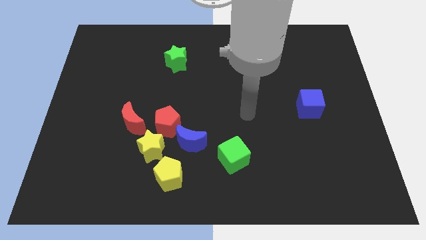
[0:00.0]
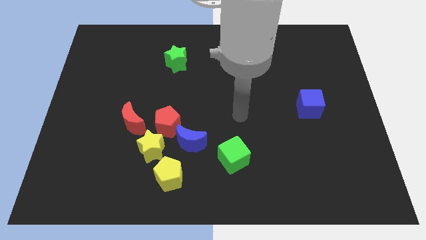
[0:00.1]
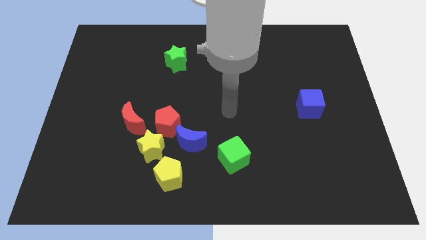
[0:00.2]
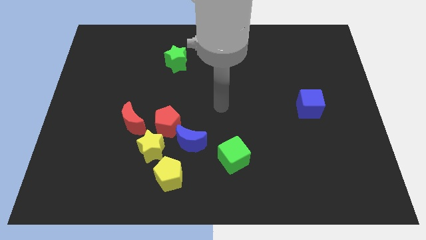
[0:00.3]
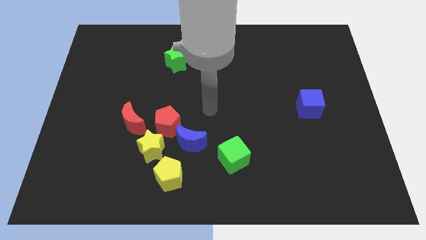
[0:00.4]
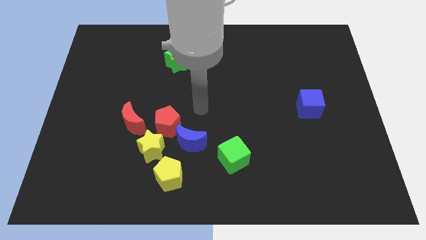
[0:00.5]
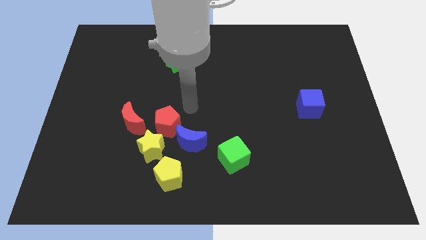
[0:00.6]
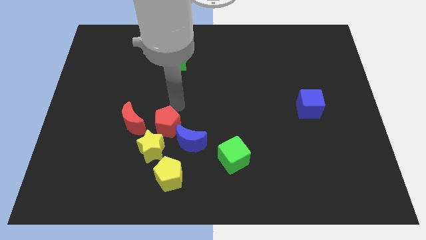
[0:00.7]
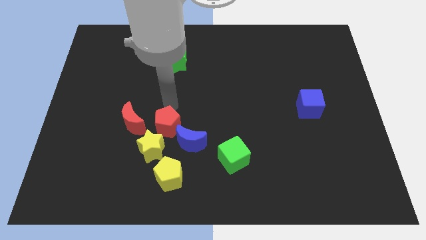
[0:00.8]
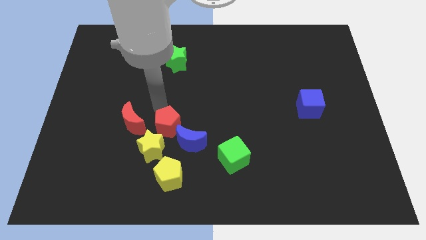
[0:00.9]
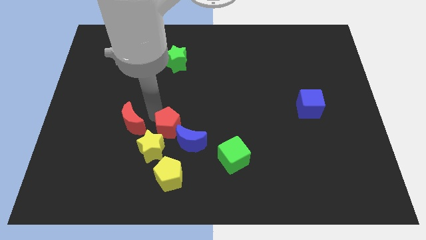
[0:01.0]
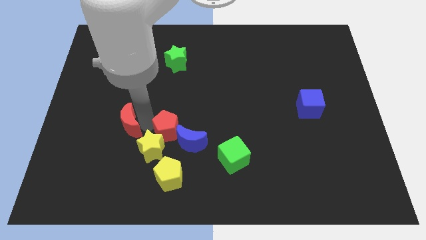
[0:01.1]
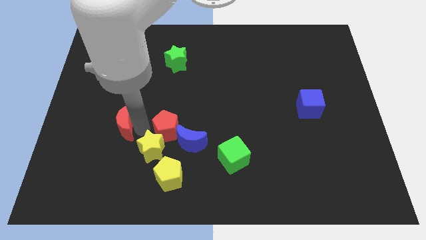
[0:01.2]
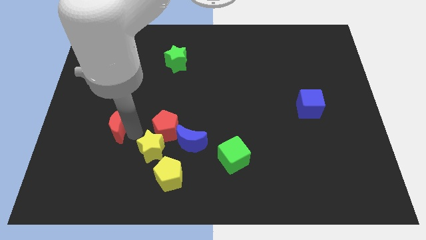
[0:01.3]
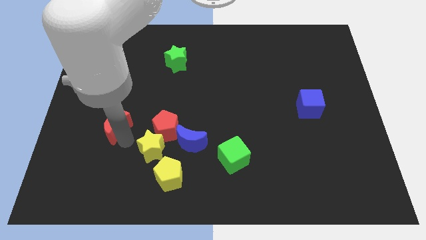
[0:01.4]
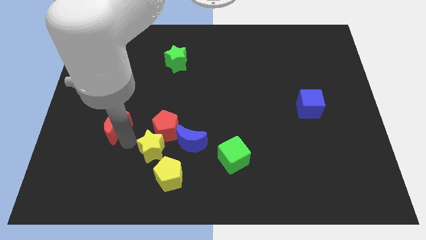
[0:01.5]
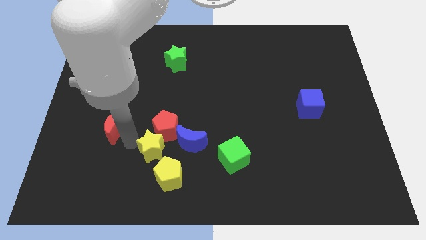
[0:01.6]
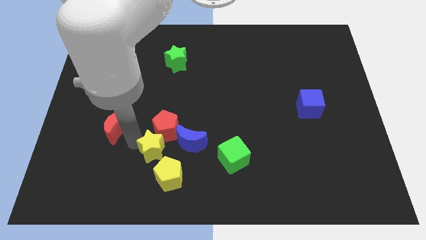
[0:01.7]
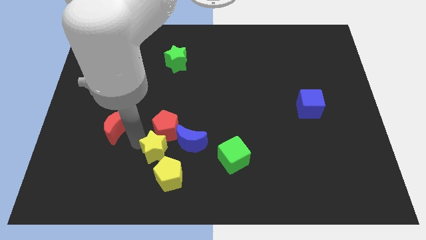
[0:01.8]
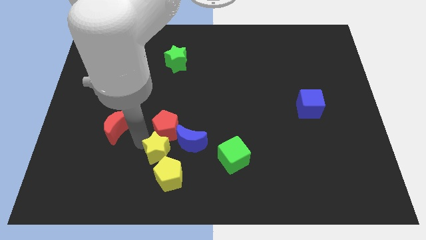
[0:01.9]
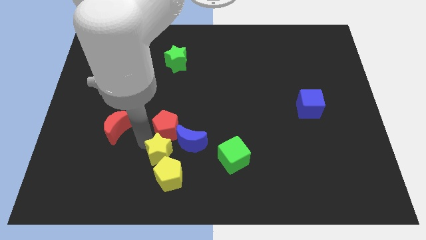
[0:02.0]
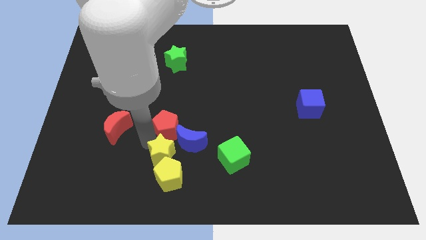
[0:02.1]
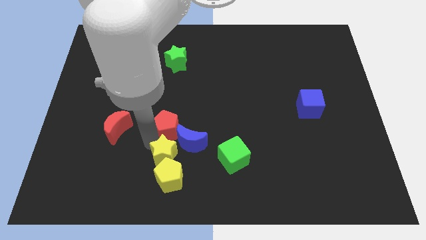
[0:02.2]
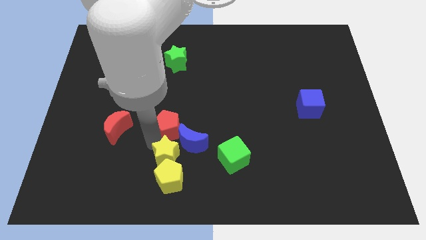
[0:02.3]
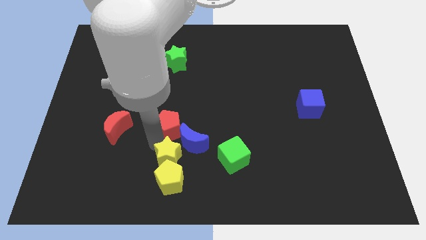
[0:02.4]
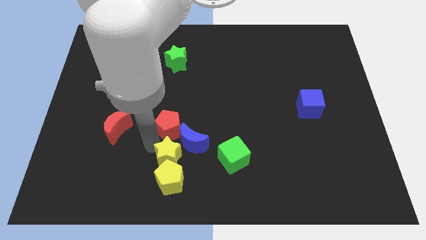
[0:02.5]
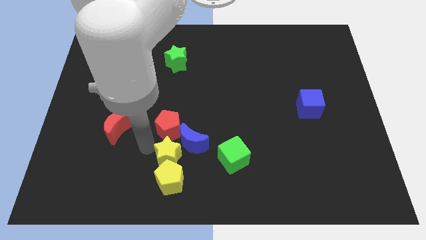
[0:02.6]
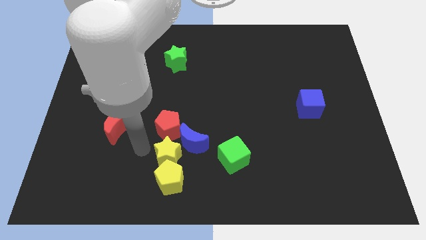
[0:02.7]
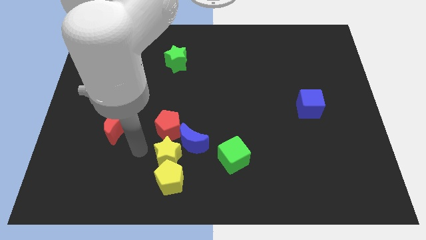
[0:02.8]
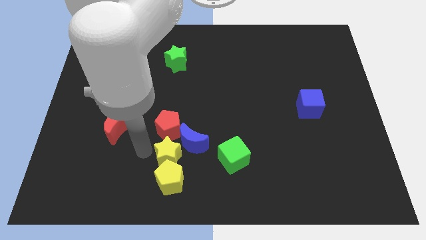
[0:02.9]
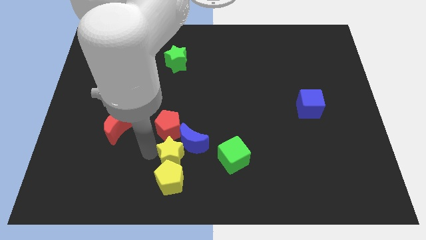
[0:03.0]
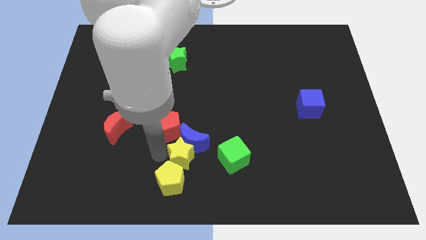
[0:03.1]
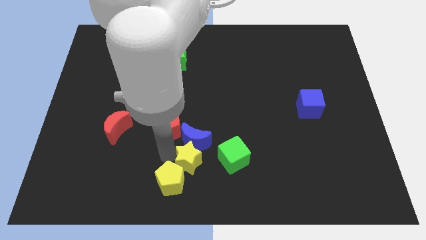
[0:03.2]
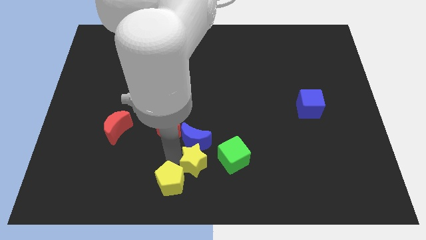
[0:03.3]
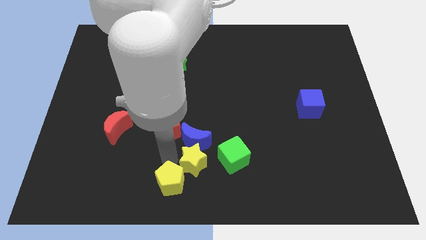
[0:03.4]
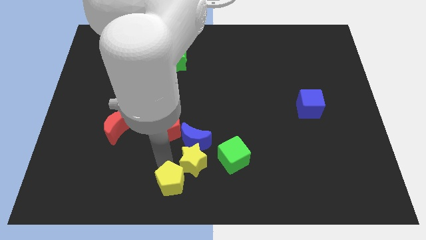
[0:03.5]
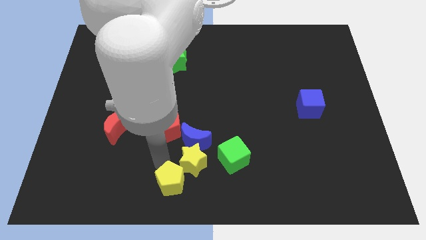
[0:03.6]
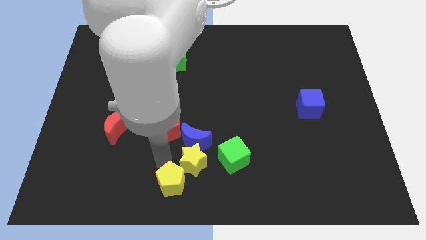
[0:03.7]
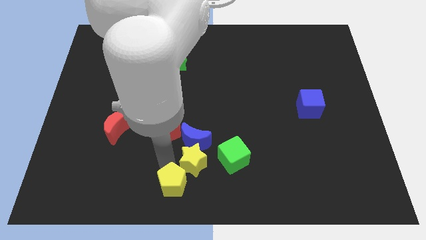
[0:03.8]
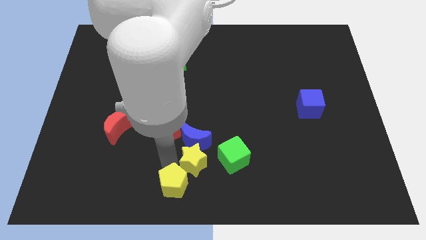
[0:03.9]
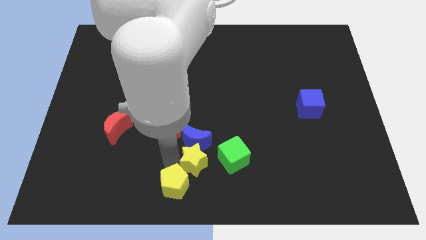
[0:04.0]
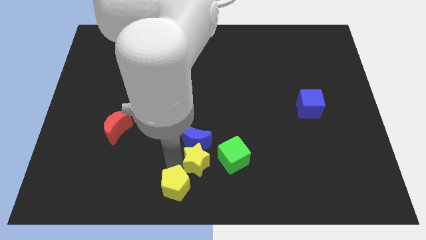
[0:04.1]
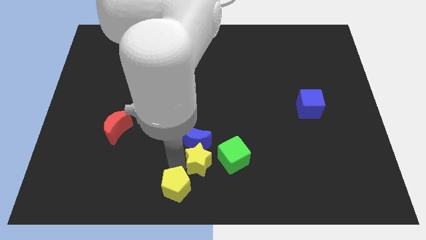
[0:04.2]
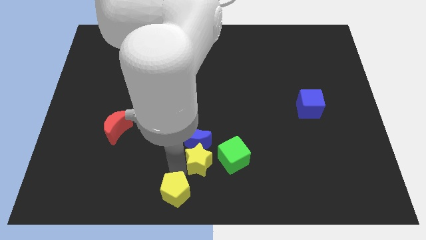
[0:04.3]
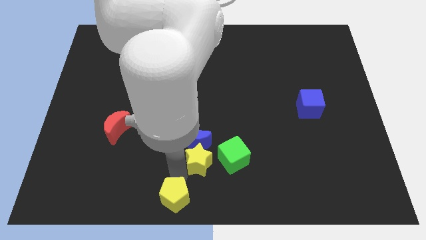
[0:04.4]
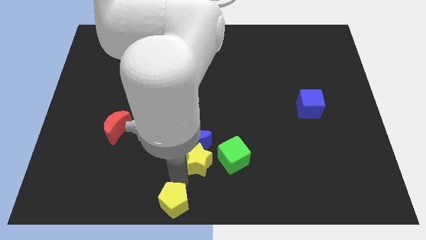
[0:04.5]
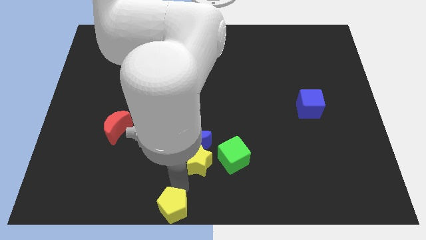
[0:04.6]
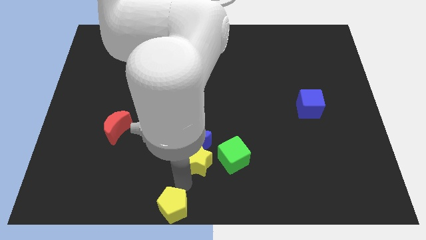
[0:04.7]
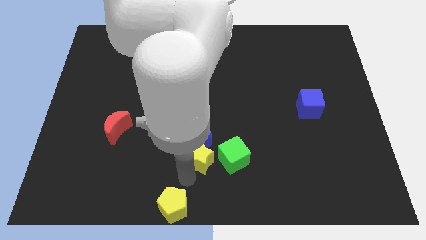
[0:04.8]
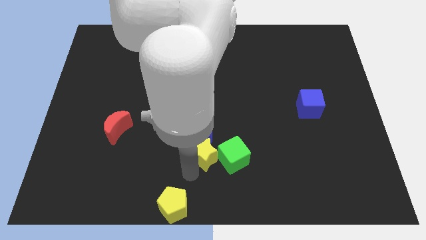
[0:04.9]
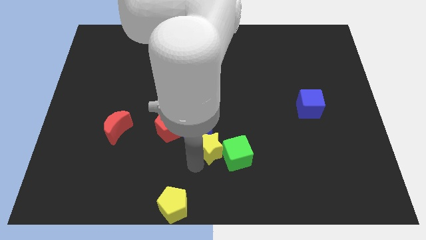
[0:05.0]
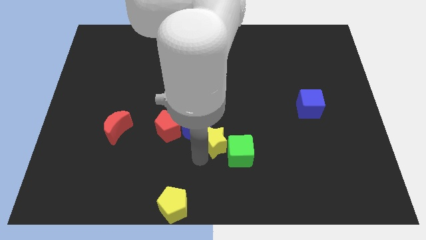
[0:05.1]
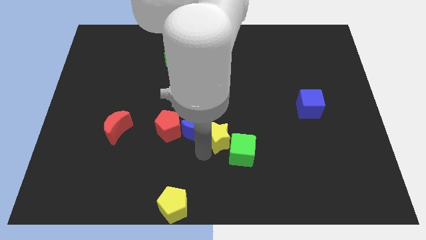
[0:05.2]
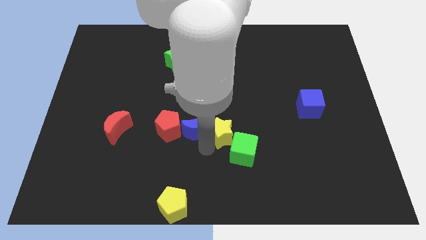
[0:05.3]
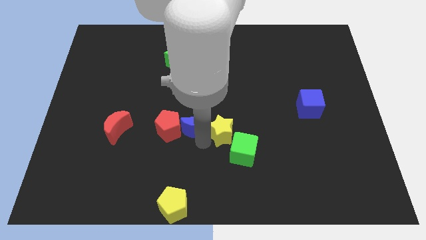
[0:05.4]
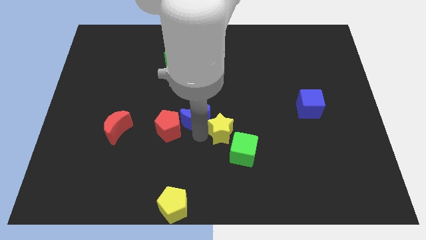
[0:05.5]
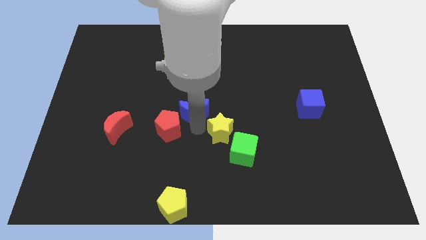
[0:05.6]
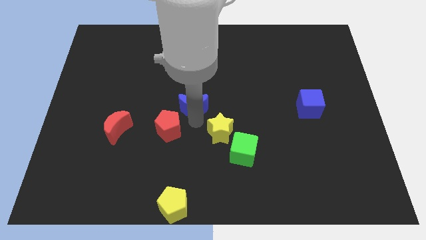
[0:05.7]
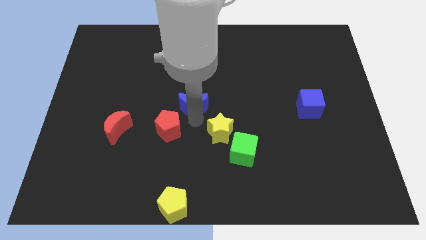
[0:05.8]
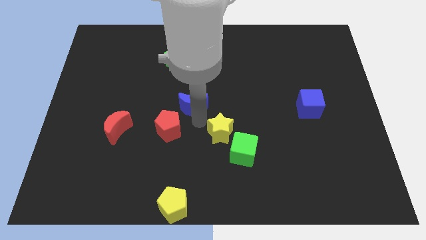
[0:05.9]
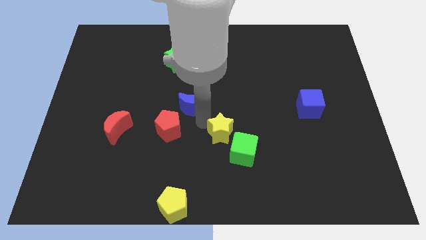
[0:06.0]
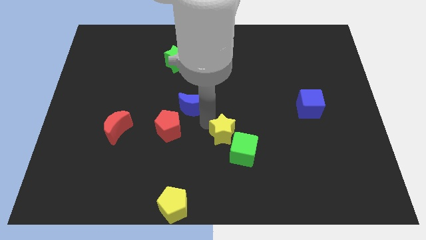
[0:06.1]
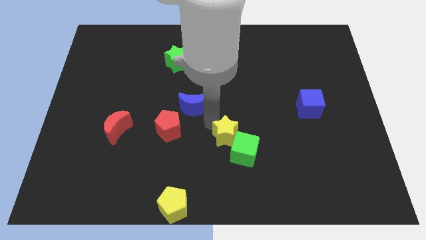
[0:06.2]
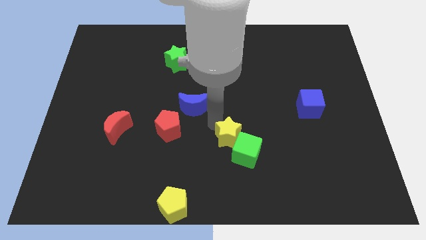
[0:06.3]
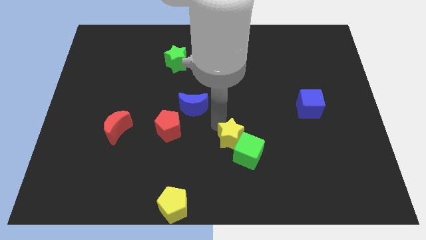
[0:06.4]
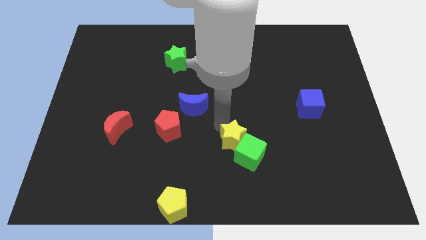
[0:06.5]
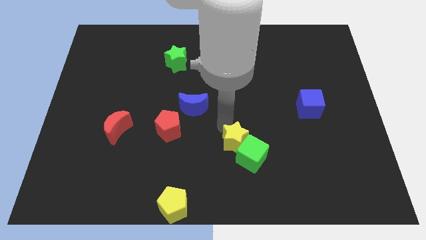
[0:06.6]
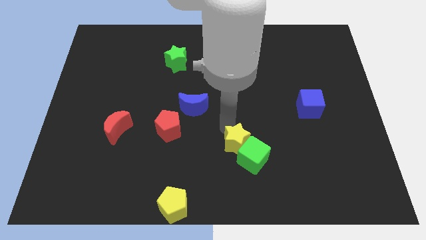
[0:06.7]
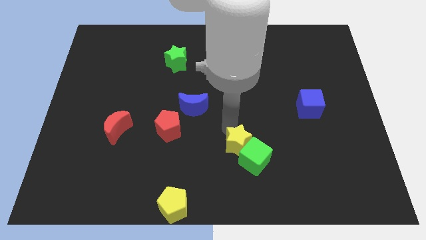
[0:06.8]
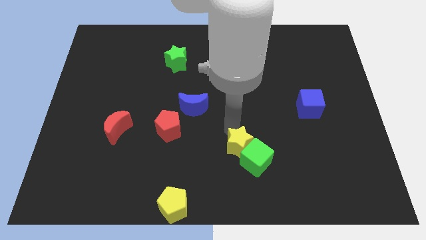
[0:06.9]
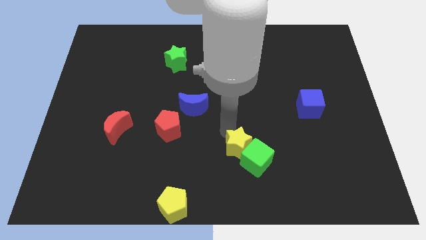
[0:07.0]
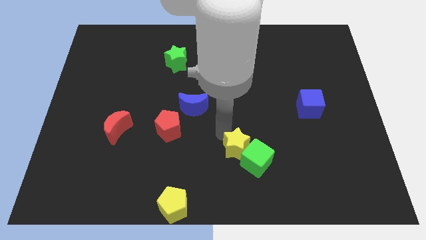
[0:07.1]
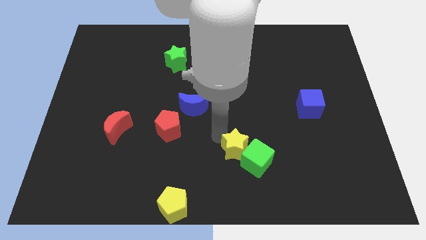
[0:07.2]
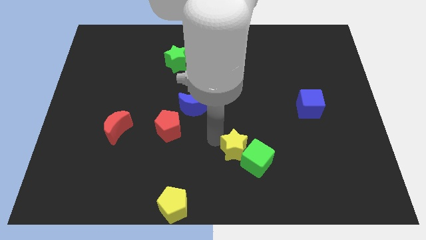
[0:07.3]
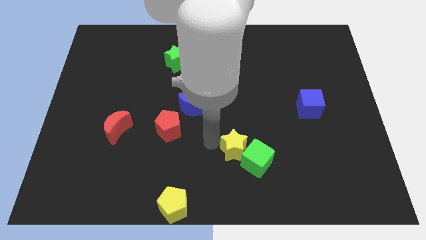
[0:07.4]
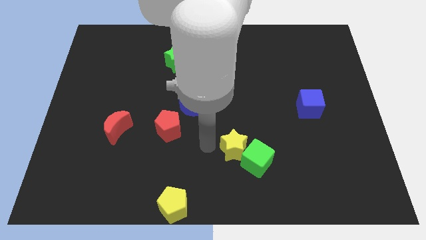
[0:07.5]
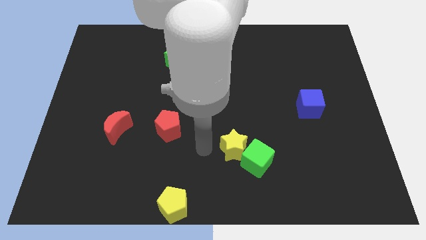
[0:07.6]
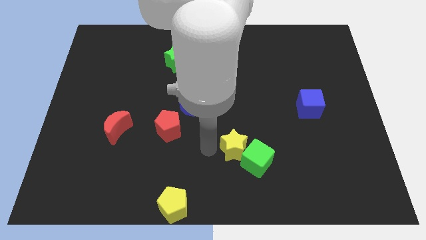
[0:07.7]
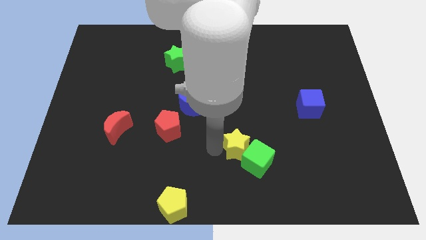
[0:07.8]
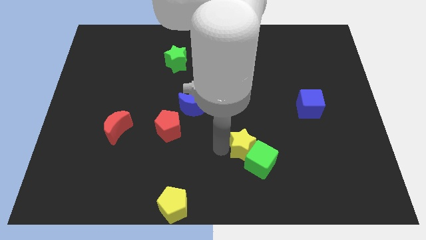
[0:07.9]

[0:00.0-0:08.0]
slide the yellow star right

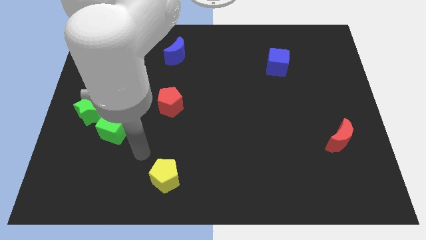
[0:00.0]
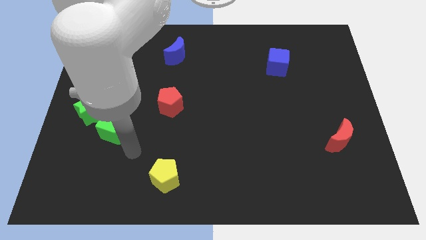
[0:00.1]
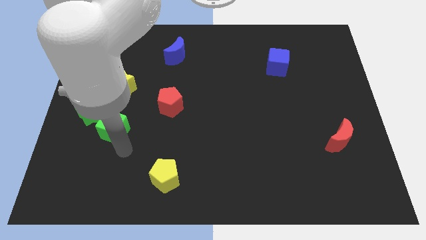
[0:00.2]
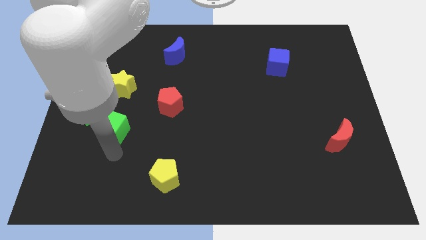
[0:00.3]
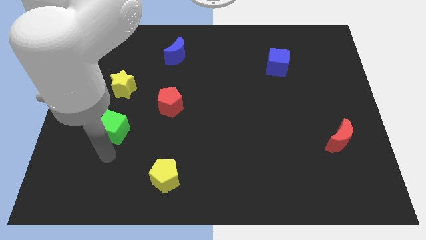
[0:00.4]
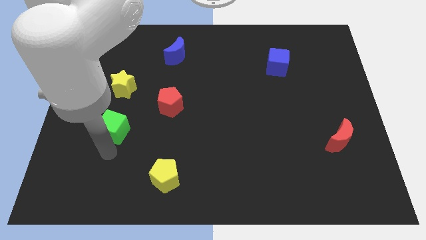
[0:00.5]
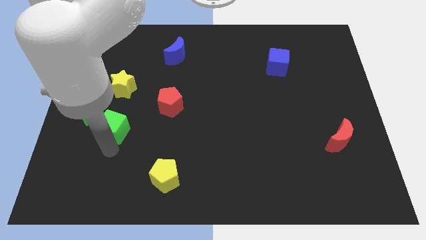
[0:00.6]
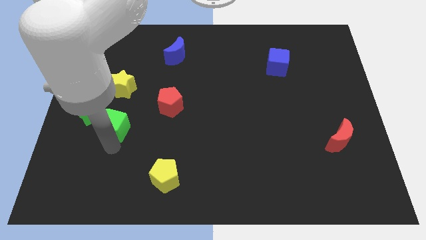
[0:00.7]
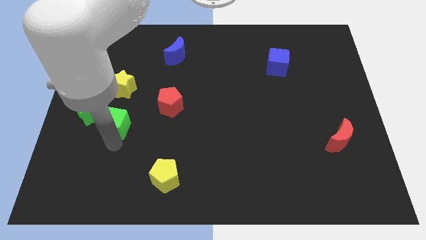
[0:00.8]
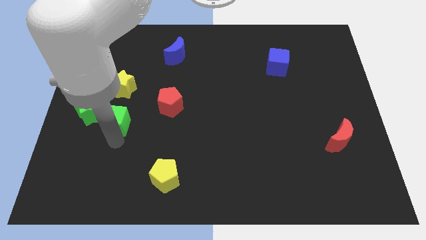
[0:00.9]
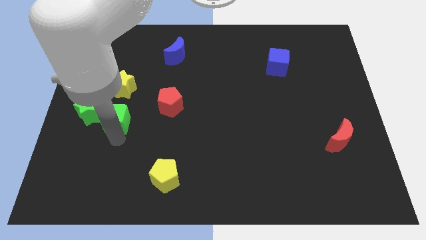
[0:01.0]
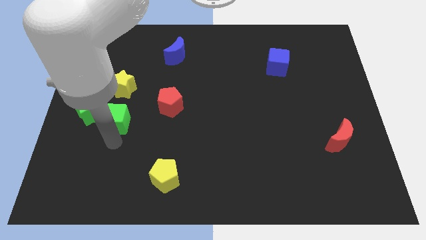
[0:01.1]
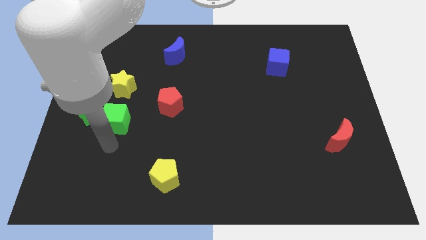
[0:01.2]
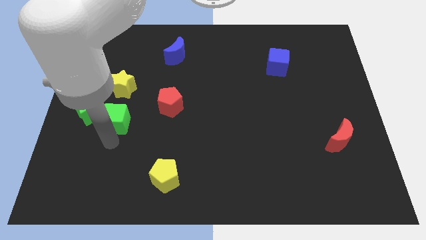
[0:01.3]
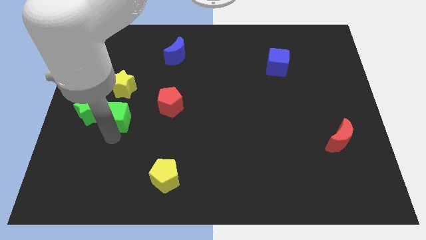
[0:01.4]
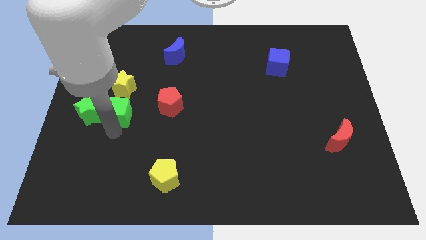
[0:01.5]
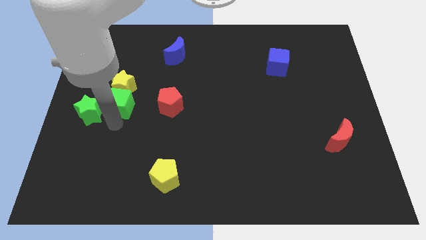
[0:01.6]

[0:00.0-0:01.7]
push the green cube a bit upwards
